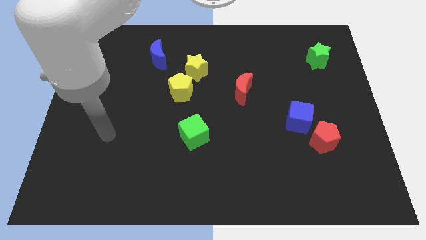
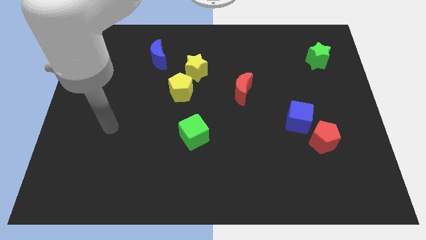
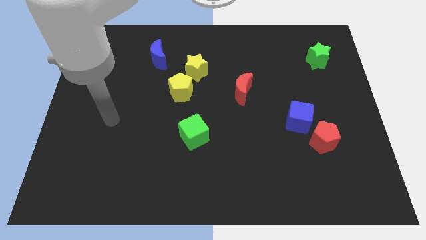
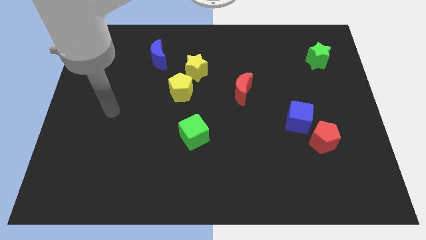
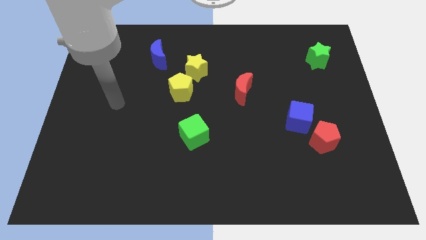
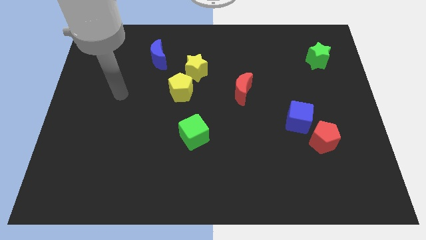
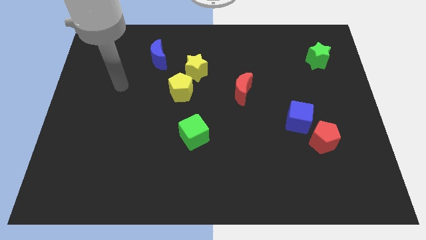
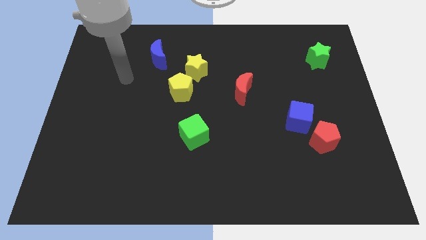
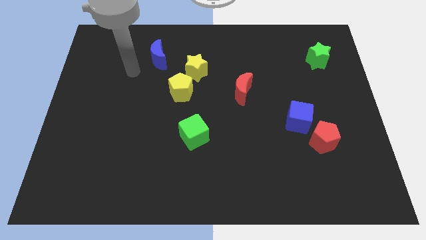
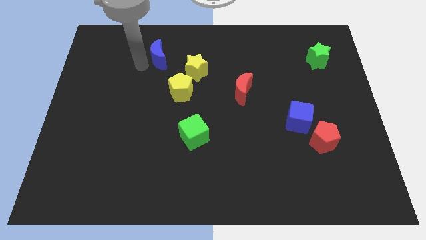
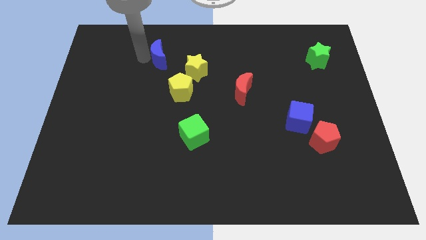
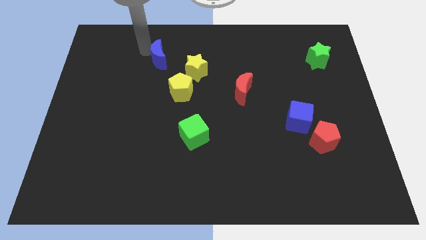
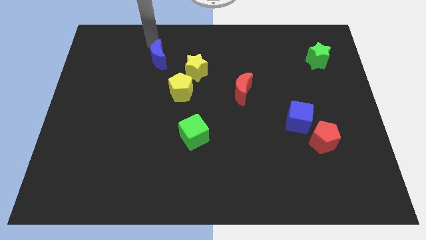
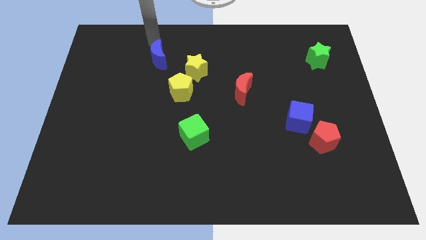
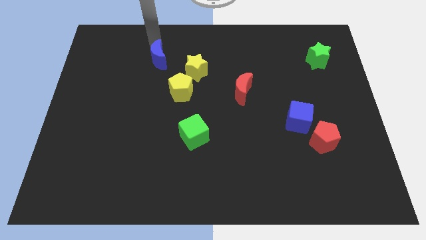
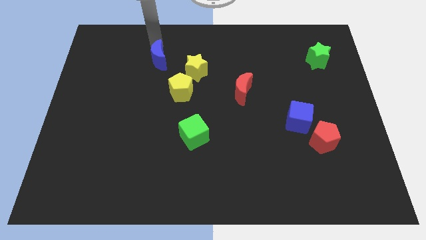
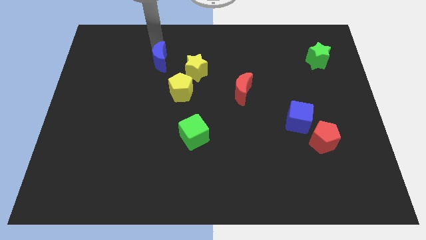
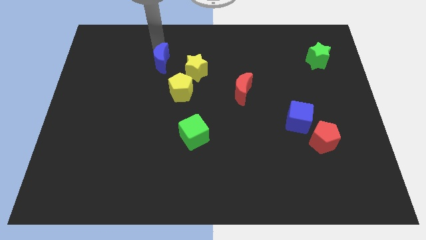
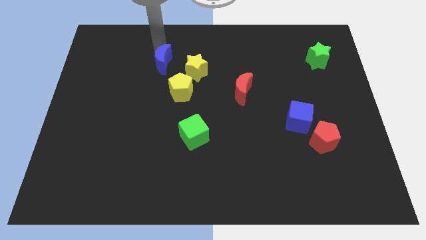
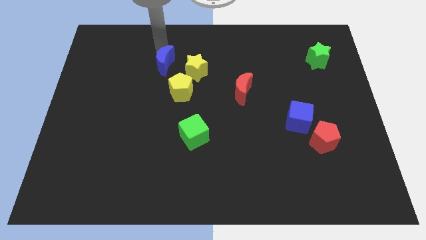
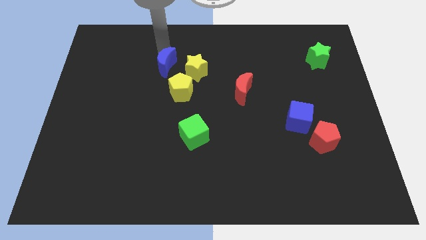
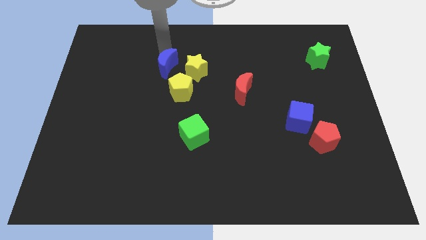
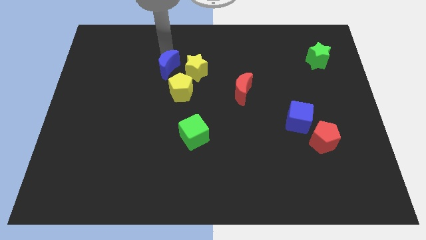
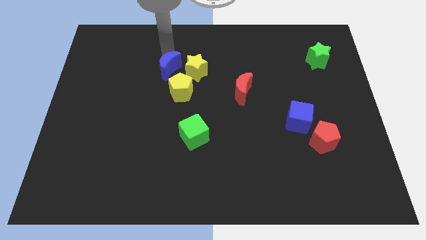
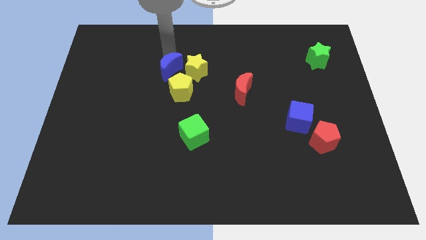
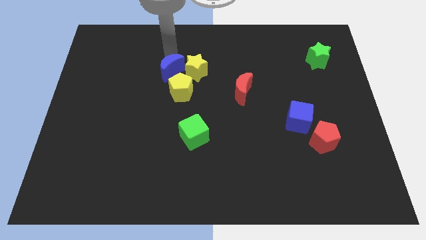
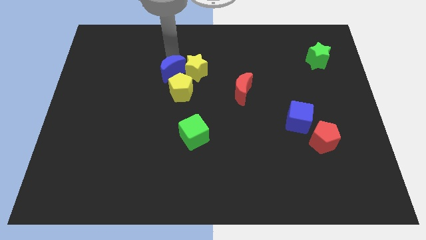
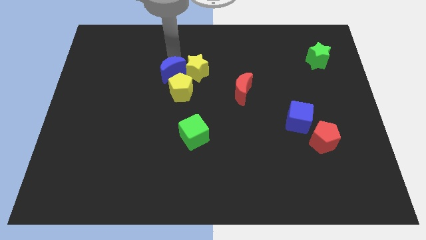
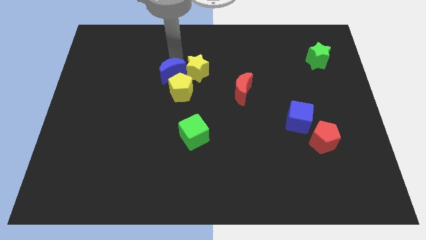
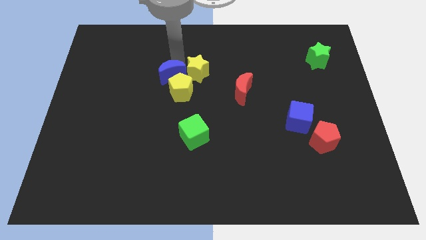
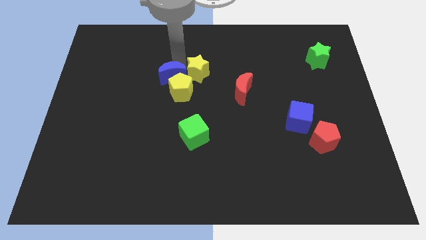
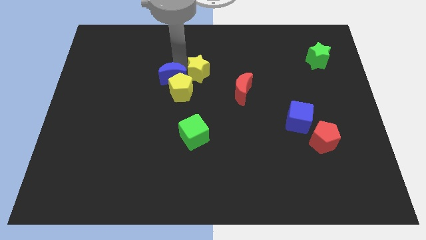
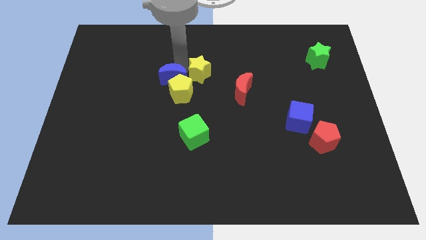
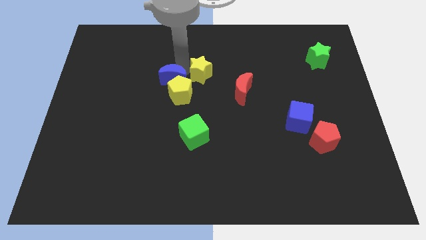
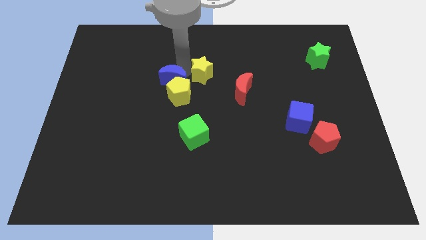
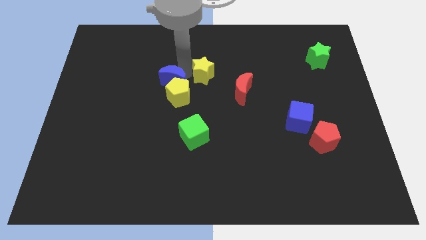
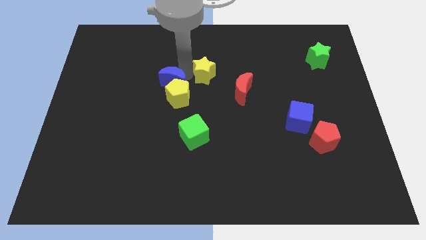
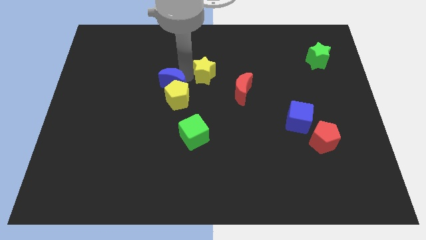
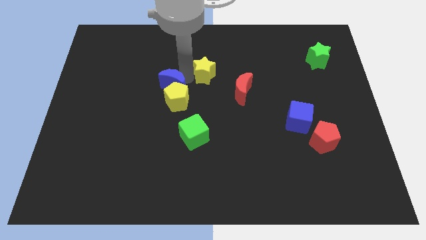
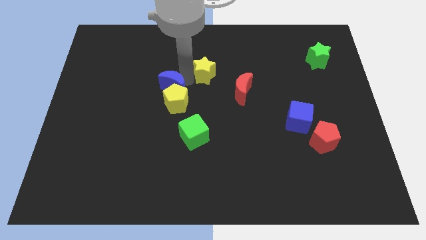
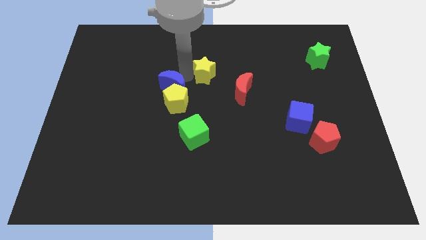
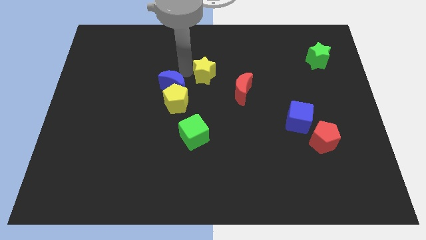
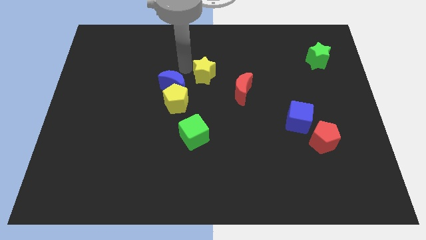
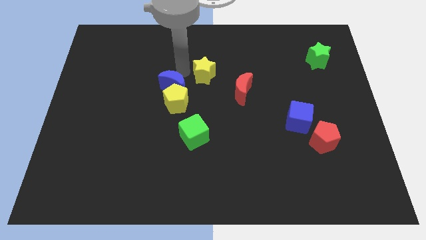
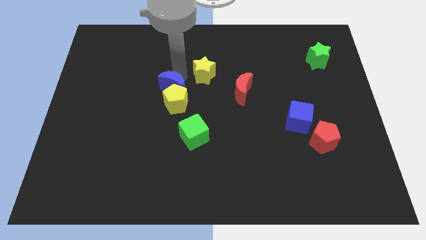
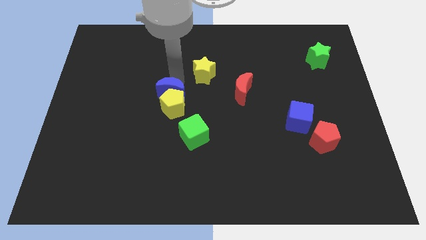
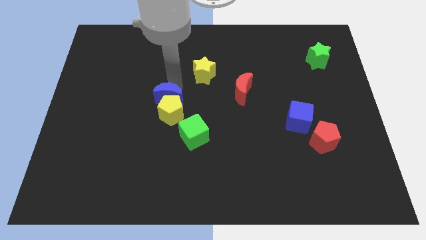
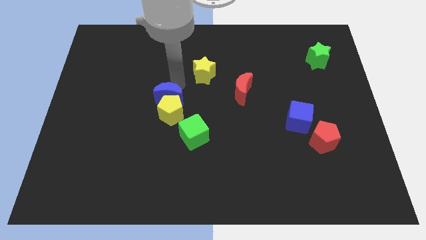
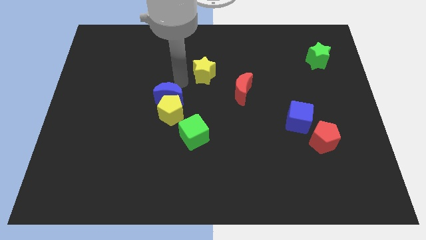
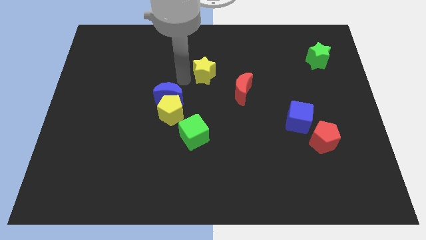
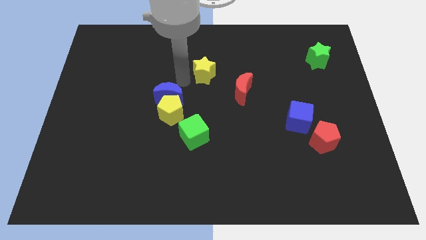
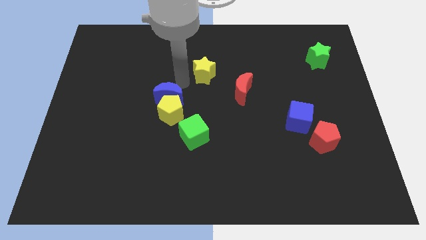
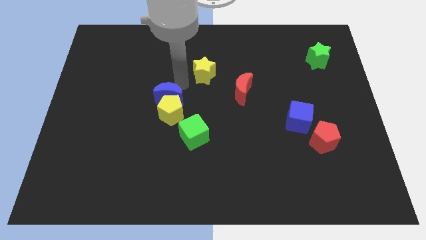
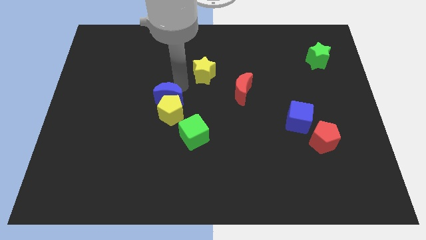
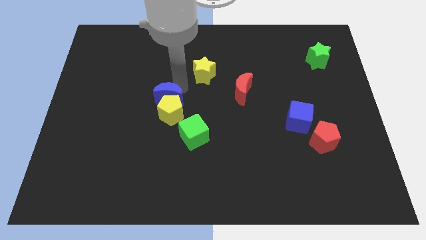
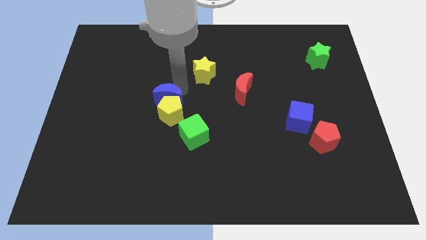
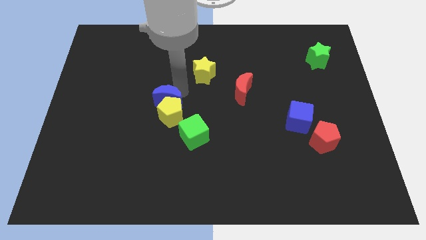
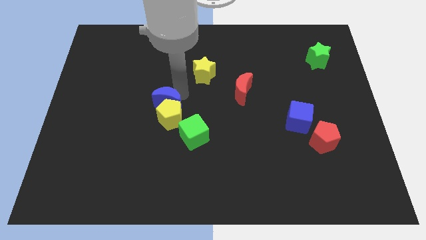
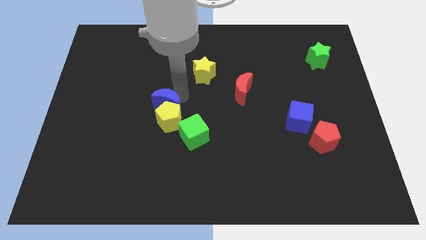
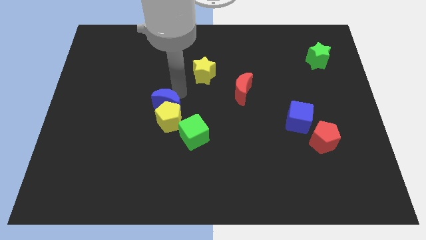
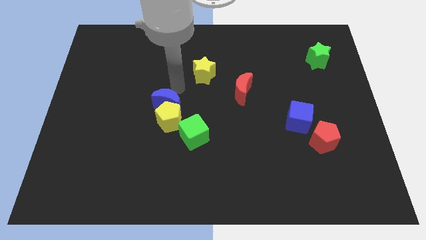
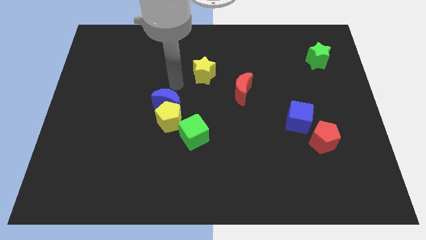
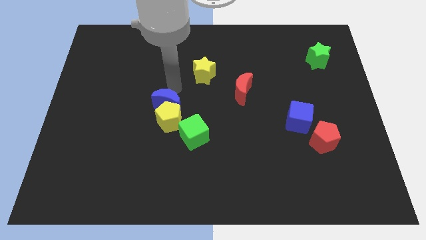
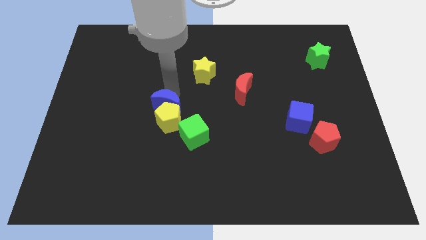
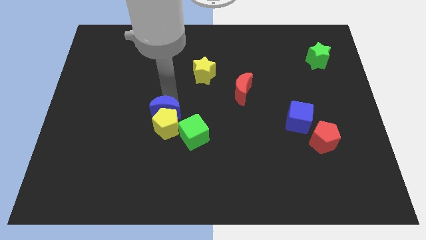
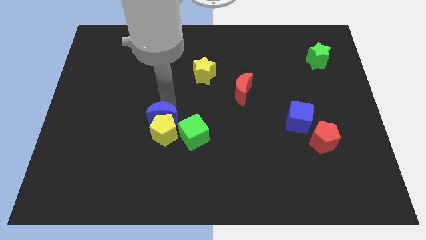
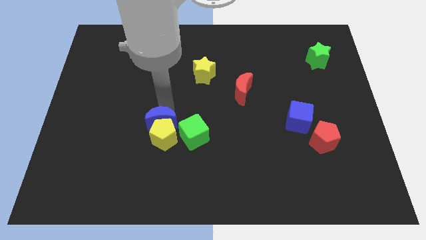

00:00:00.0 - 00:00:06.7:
slide the blue moon down

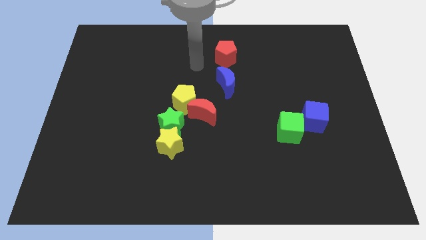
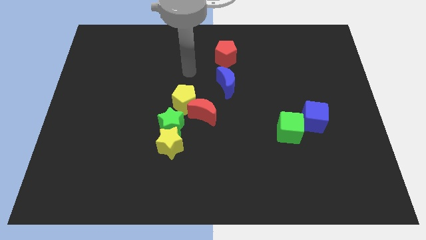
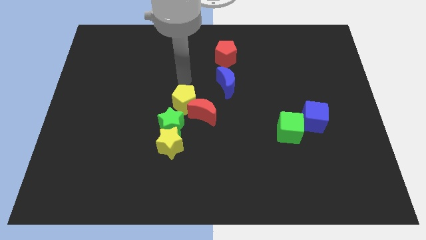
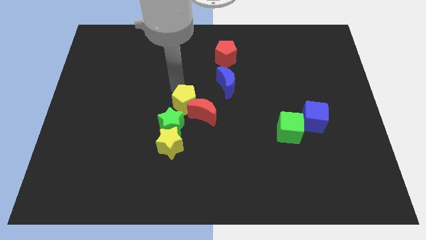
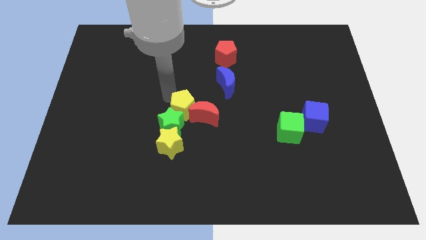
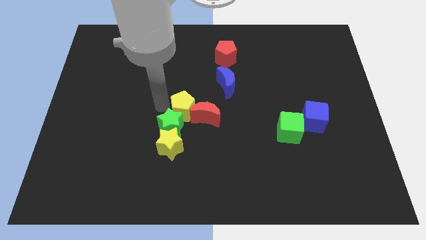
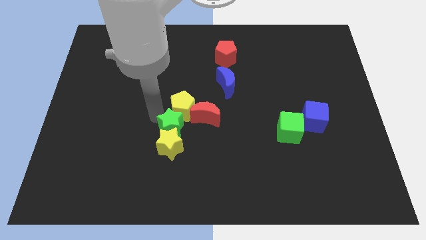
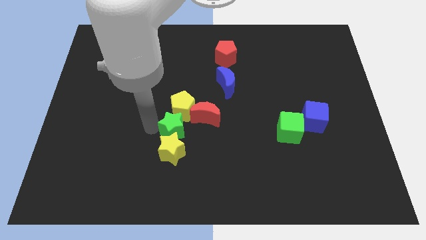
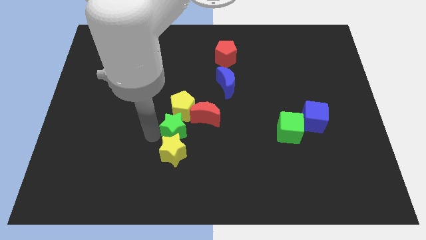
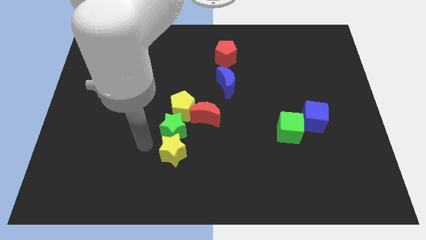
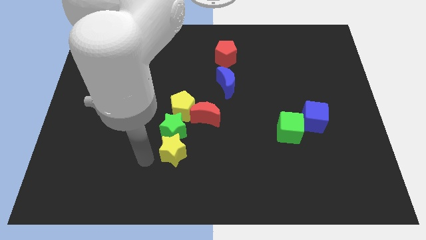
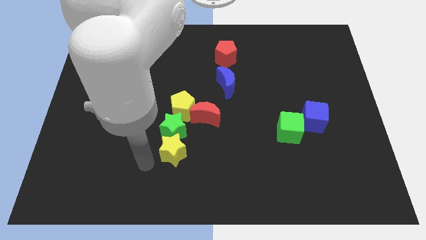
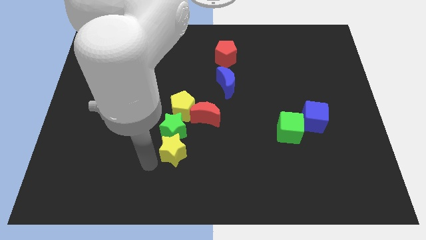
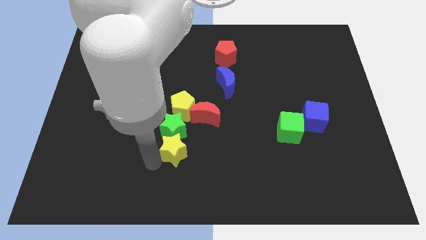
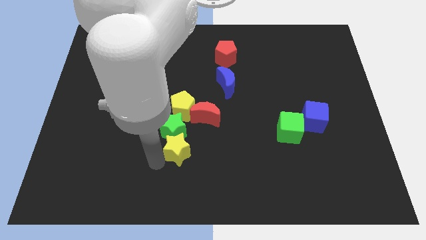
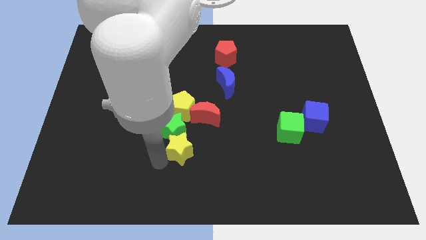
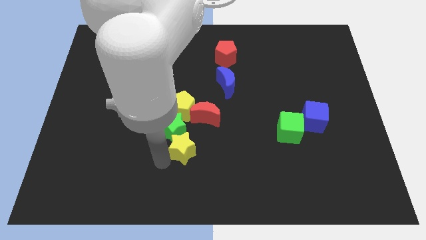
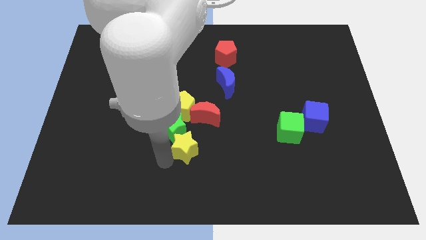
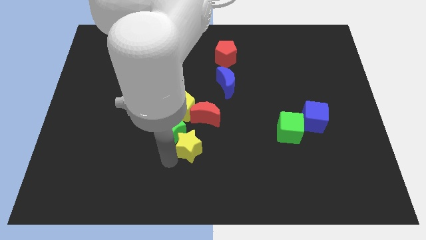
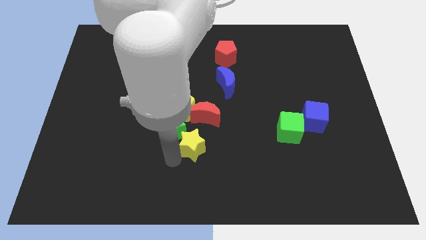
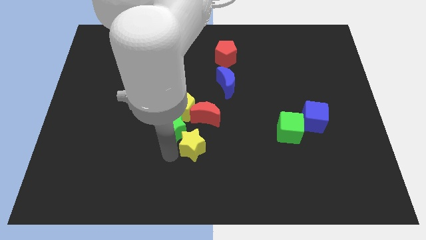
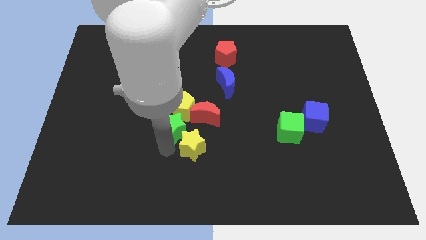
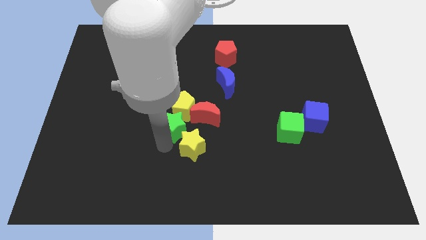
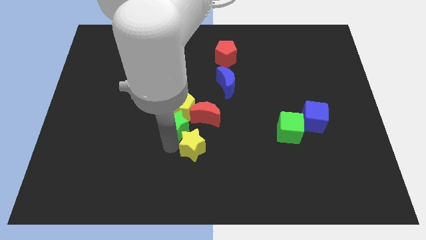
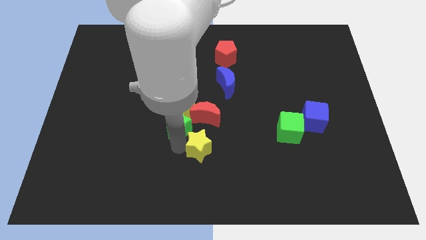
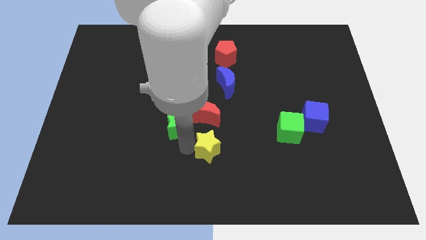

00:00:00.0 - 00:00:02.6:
move the yellow star right a little
